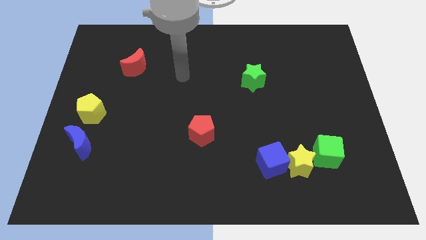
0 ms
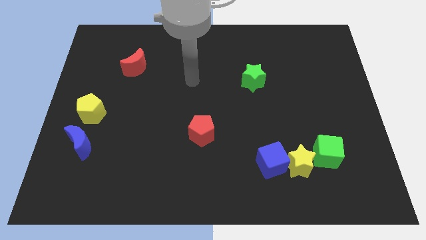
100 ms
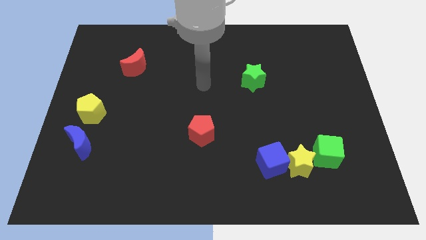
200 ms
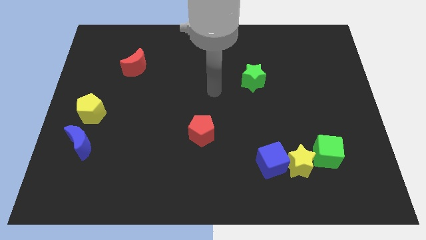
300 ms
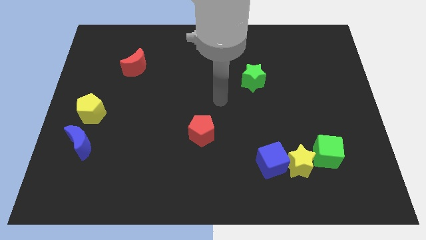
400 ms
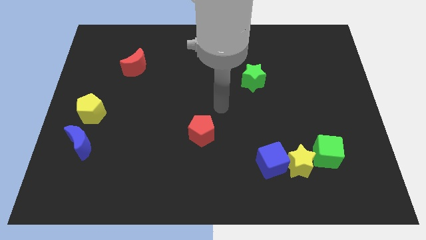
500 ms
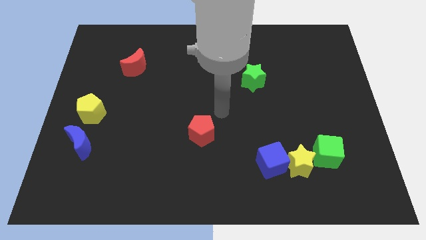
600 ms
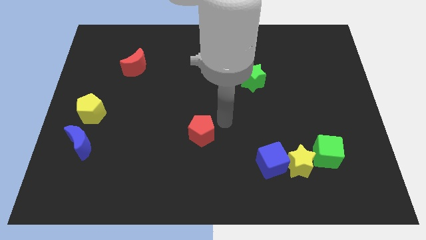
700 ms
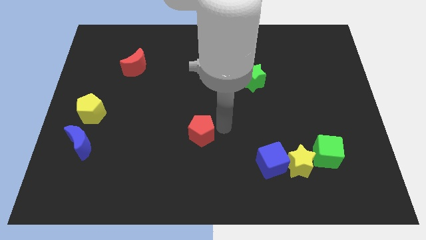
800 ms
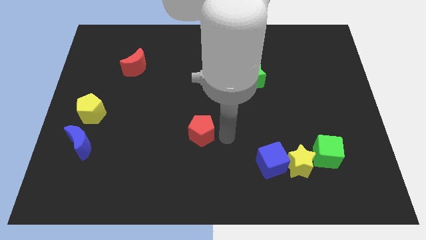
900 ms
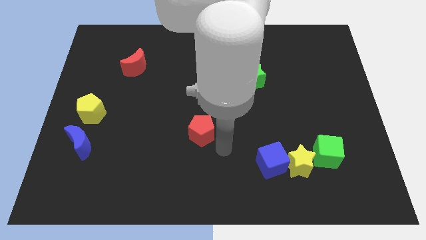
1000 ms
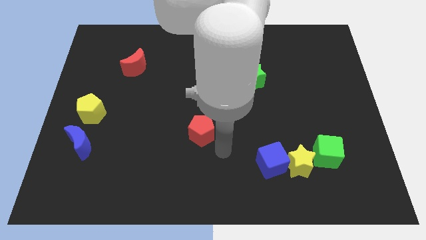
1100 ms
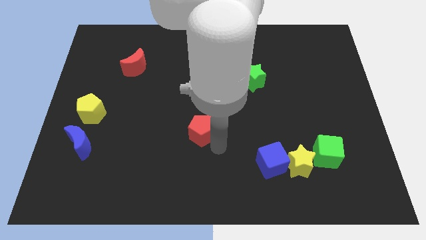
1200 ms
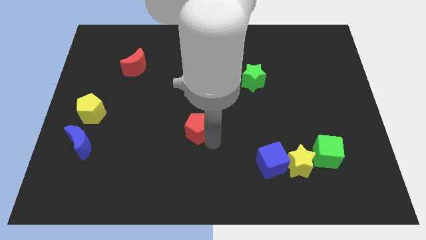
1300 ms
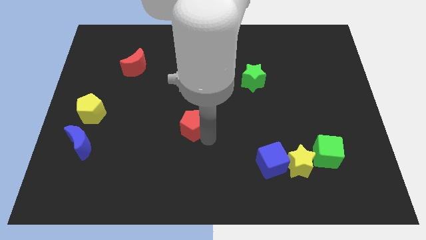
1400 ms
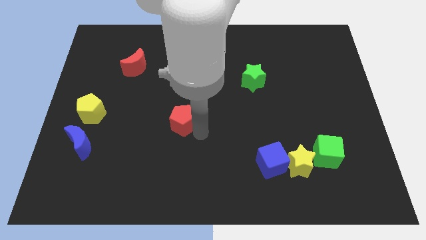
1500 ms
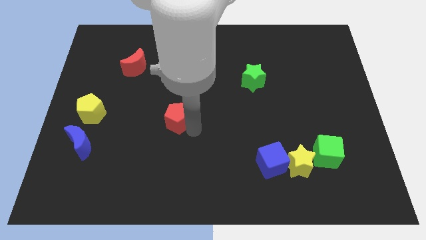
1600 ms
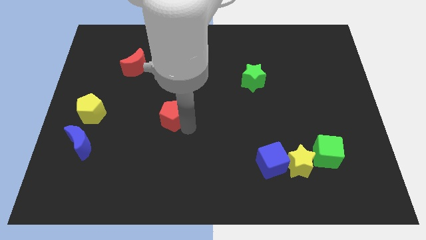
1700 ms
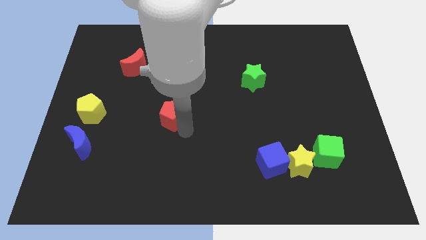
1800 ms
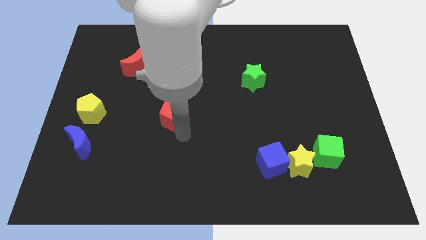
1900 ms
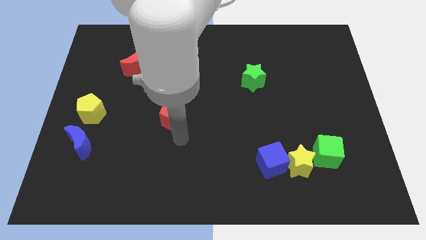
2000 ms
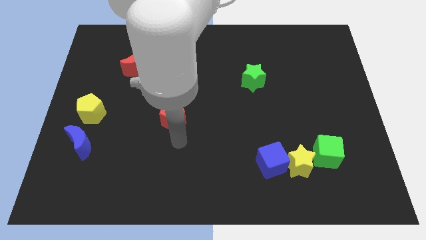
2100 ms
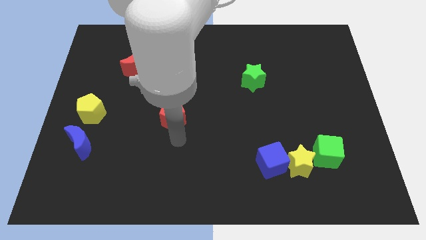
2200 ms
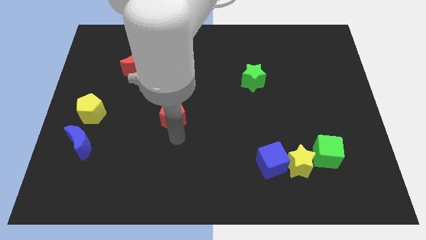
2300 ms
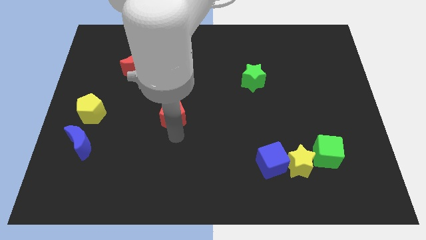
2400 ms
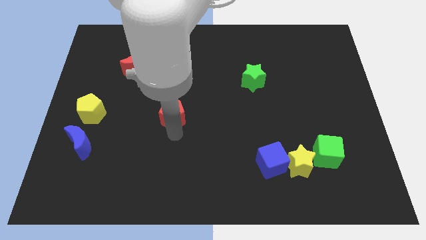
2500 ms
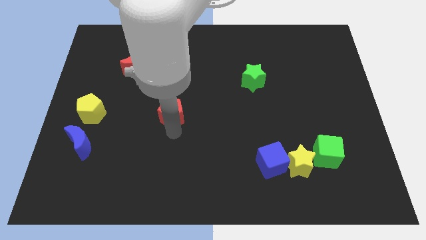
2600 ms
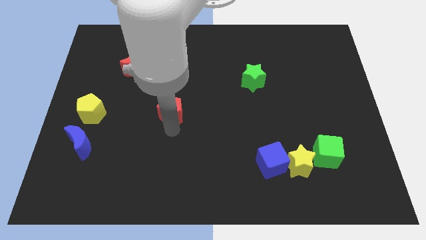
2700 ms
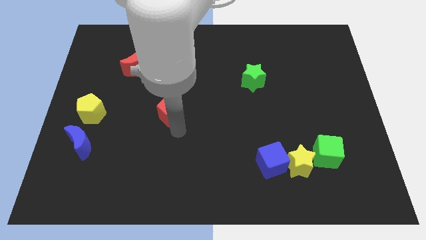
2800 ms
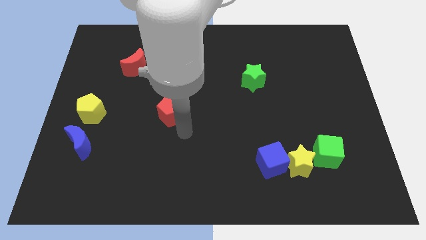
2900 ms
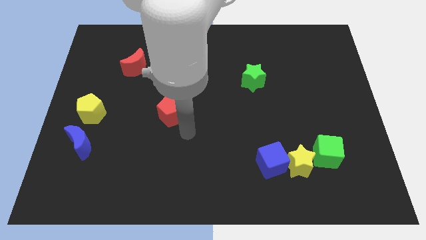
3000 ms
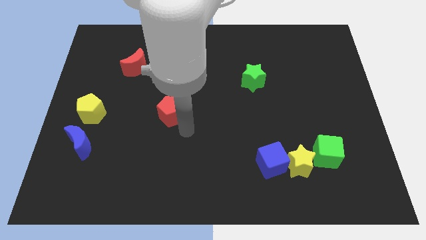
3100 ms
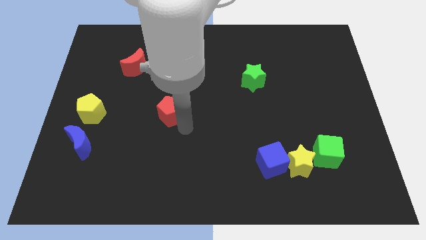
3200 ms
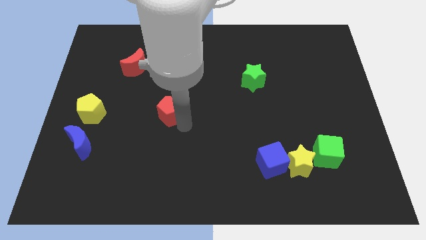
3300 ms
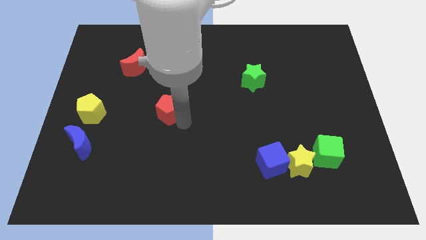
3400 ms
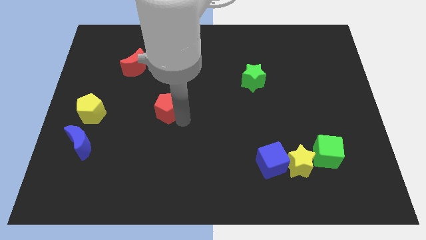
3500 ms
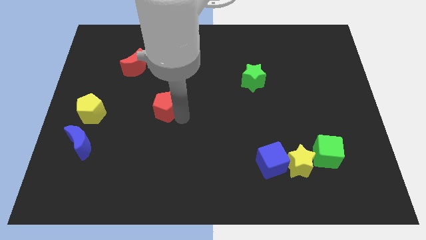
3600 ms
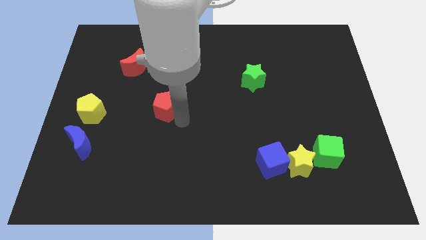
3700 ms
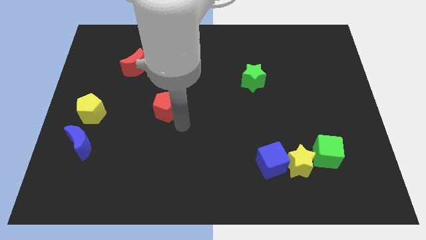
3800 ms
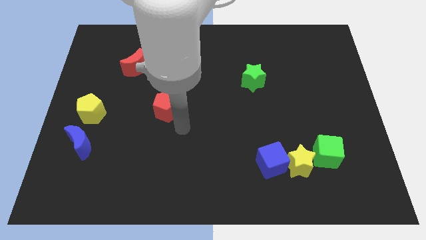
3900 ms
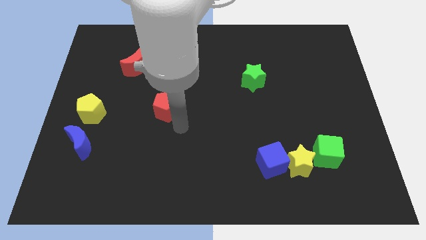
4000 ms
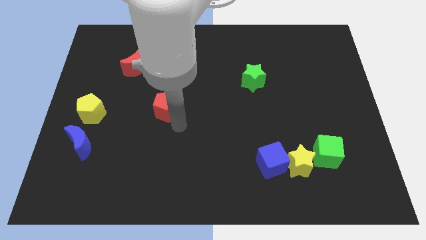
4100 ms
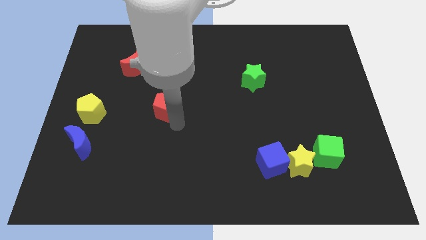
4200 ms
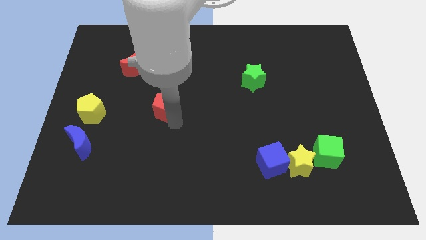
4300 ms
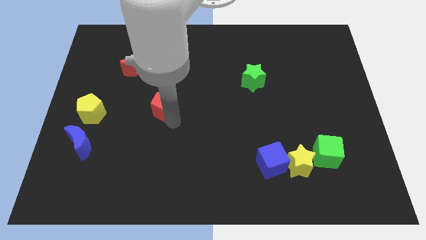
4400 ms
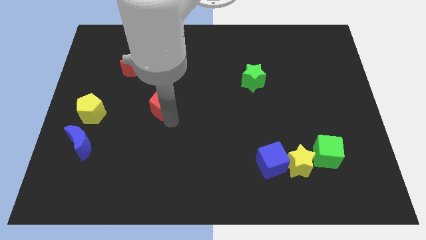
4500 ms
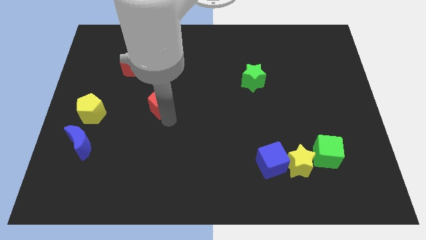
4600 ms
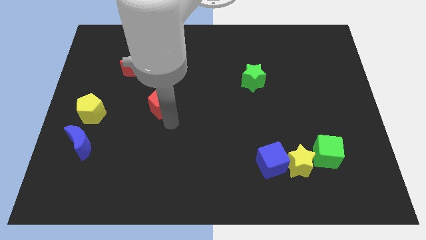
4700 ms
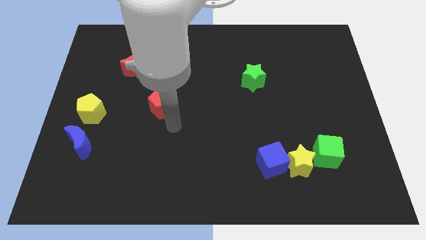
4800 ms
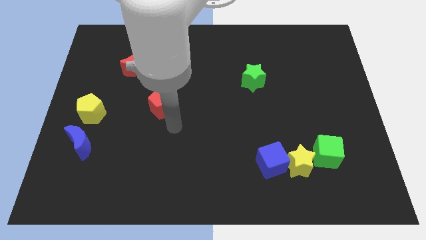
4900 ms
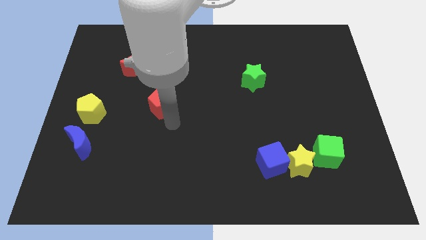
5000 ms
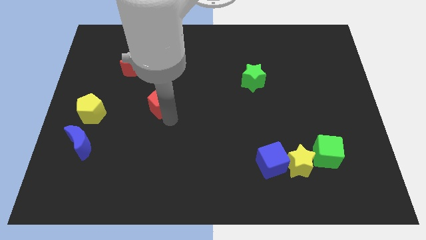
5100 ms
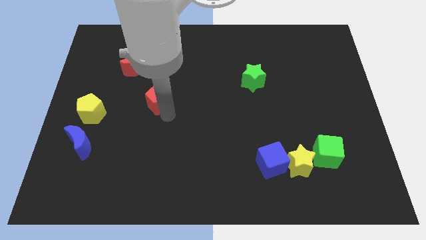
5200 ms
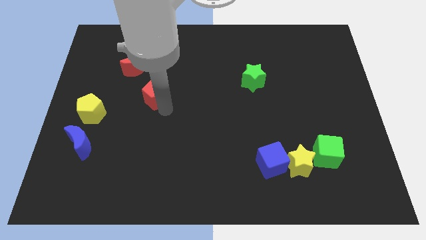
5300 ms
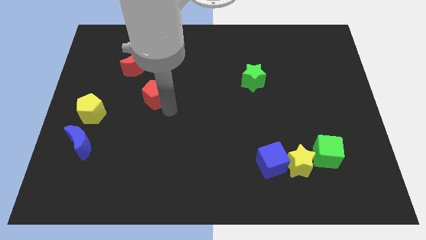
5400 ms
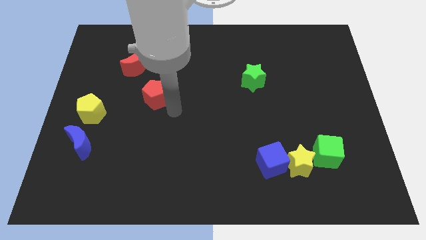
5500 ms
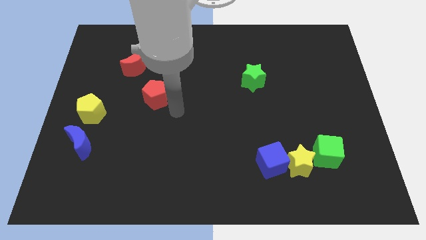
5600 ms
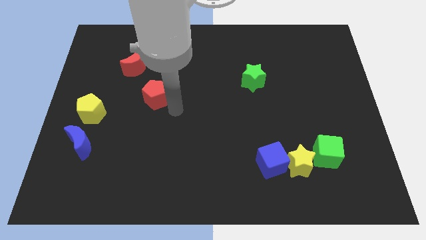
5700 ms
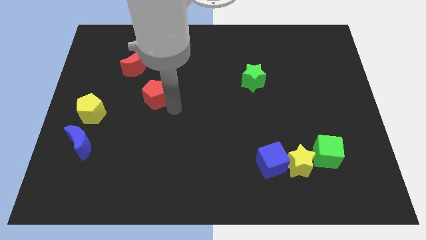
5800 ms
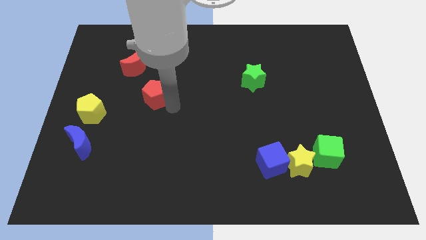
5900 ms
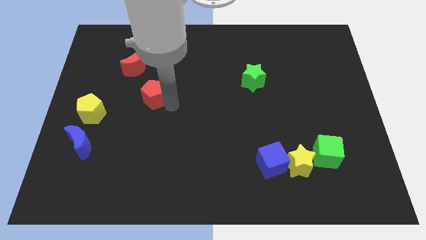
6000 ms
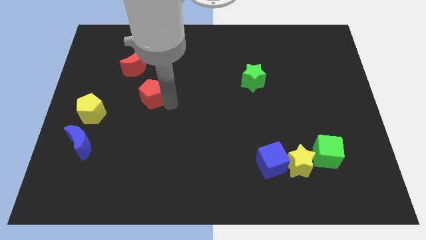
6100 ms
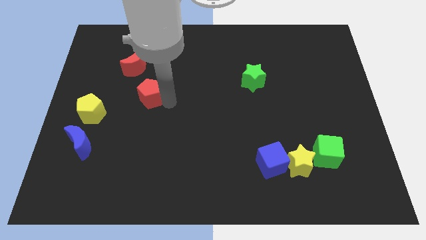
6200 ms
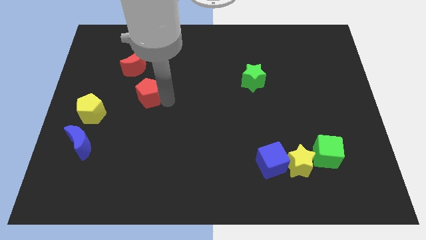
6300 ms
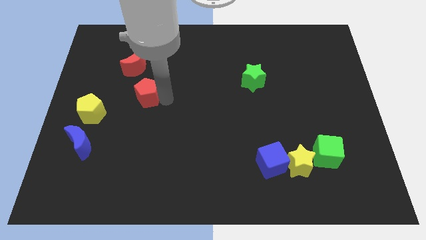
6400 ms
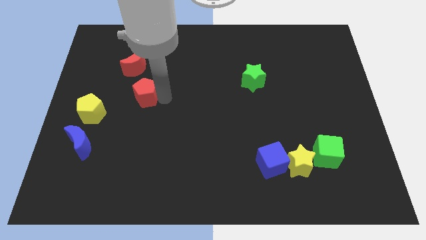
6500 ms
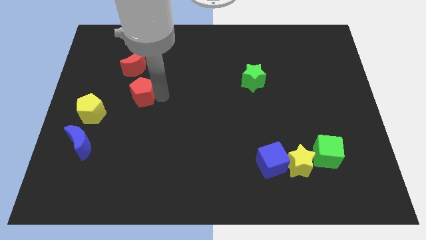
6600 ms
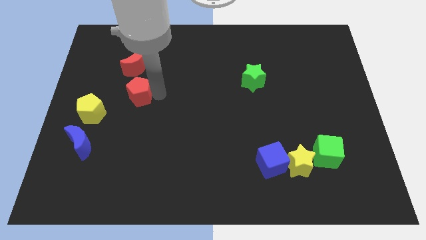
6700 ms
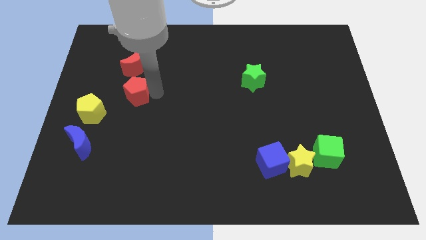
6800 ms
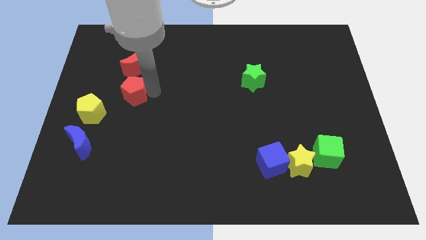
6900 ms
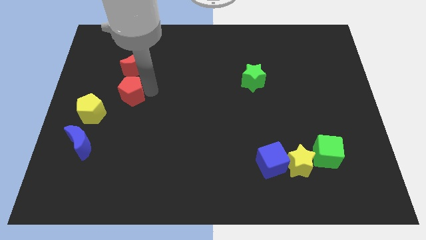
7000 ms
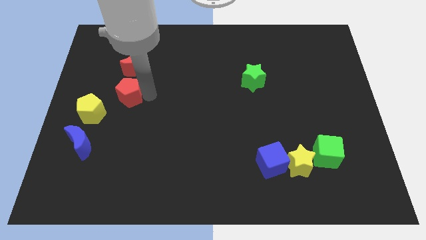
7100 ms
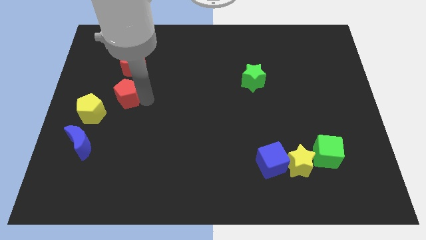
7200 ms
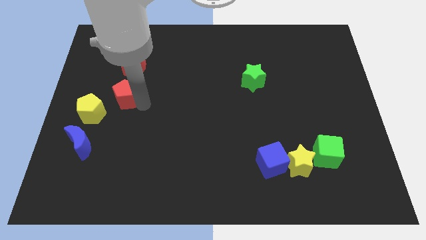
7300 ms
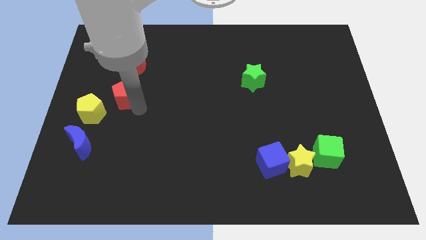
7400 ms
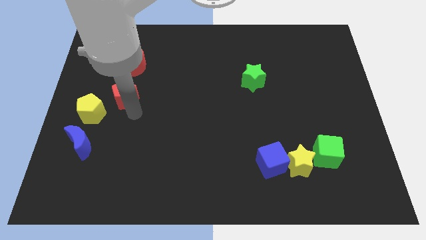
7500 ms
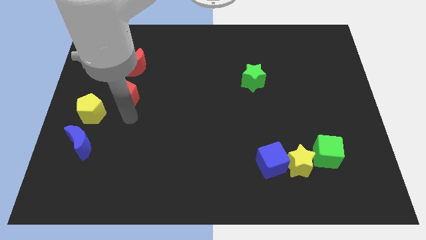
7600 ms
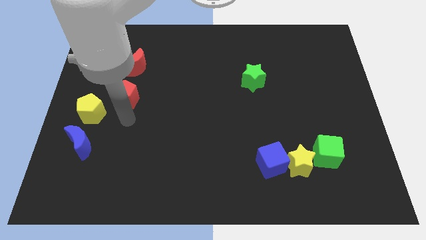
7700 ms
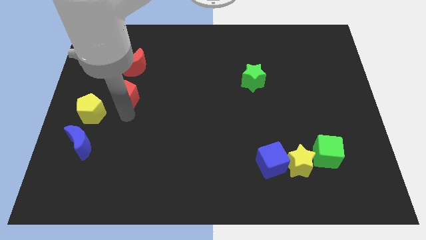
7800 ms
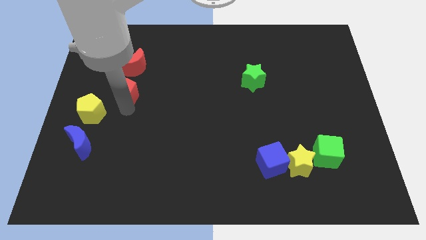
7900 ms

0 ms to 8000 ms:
slide the red pentagon up and then left
